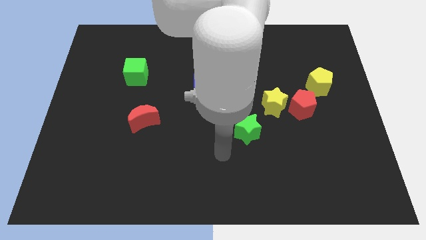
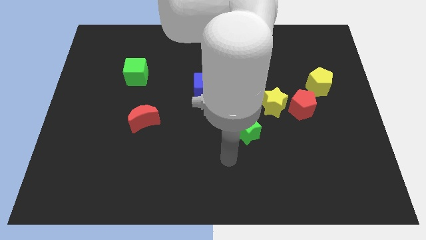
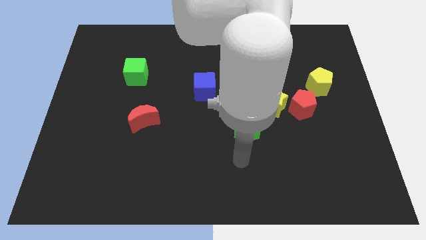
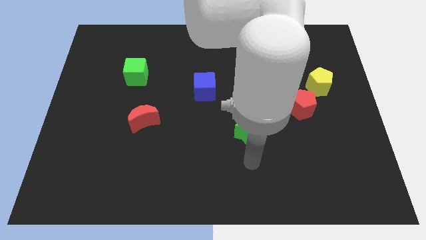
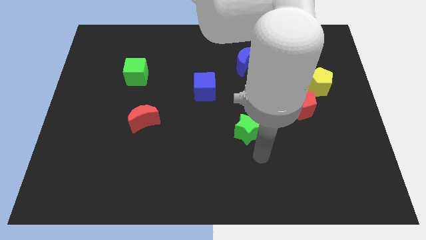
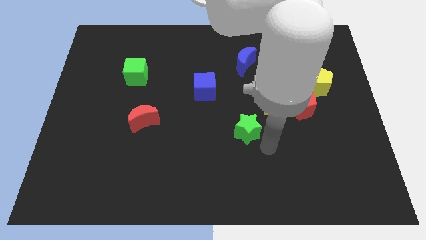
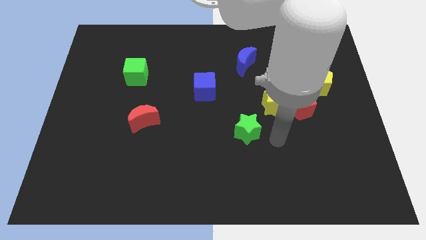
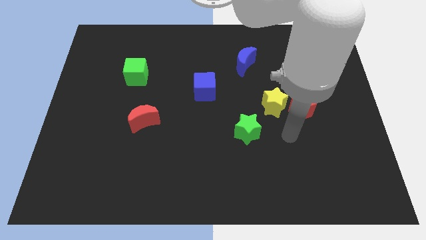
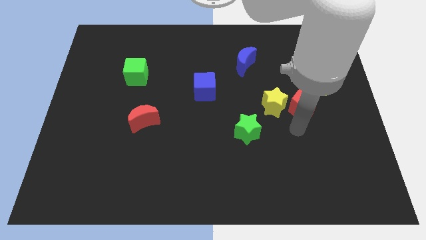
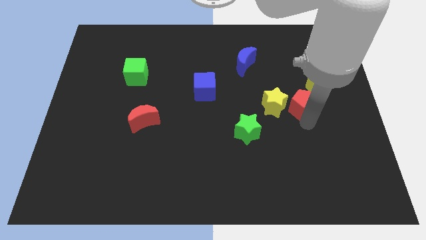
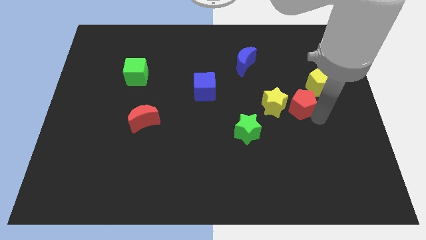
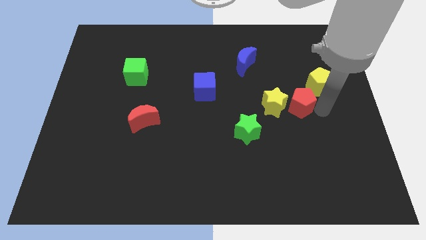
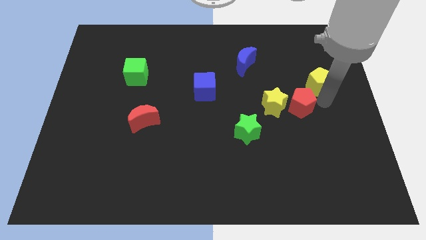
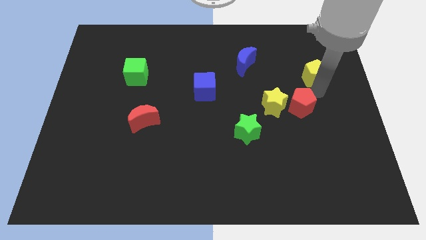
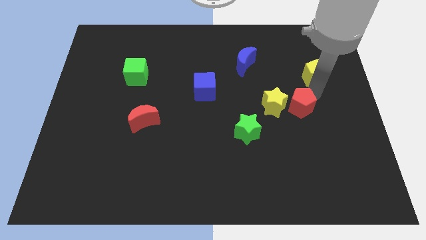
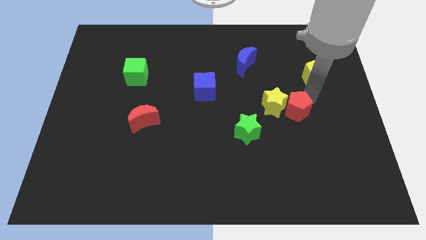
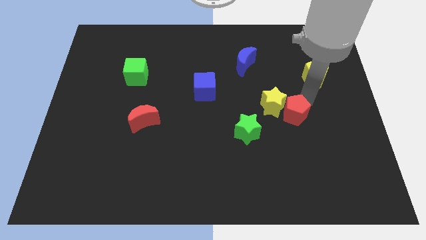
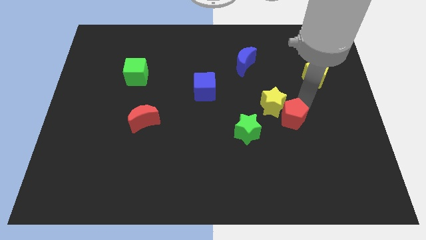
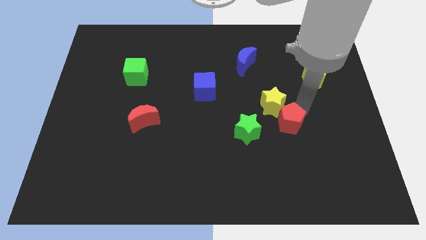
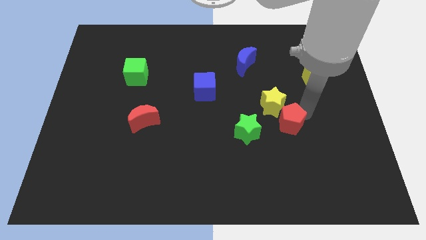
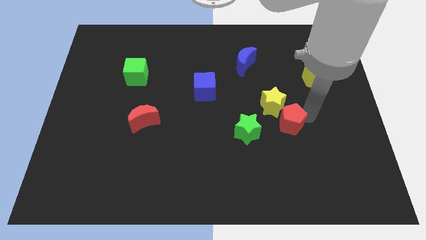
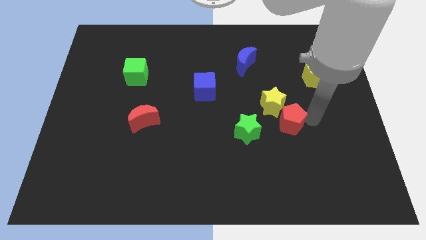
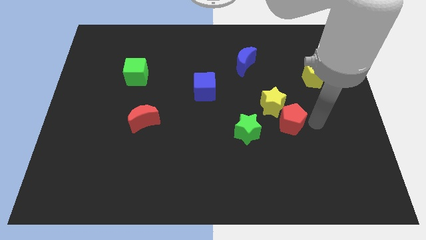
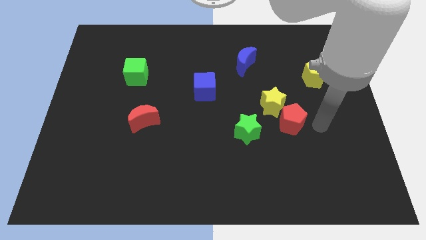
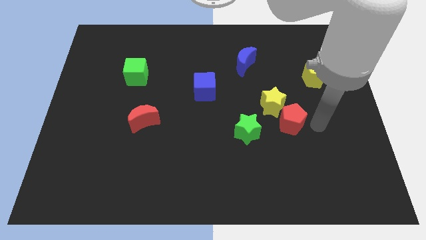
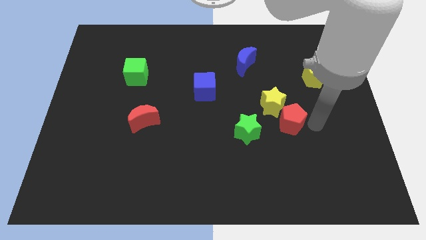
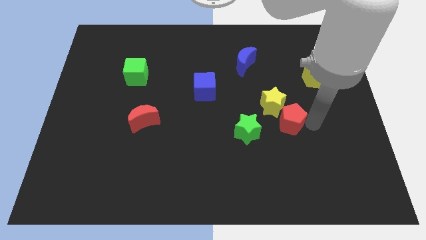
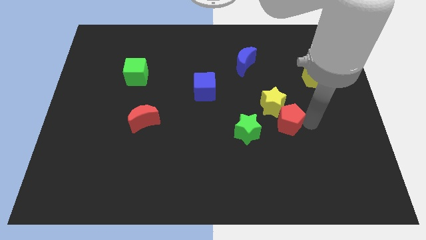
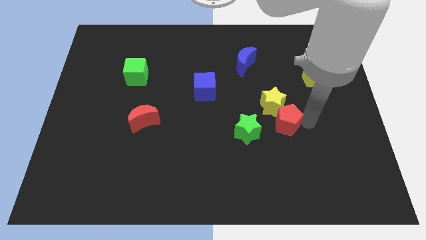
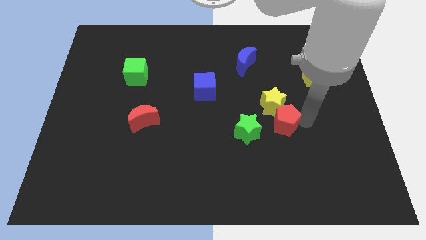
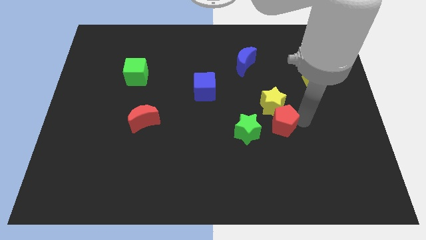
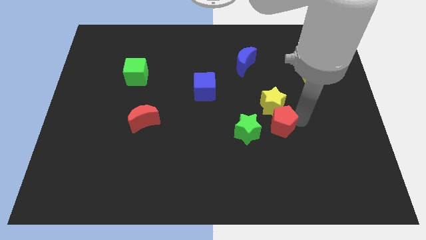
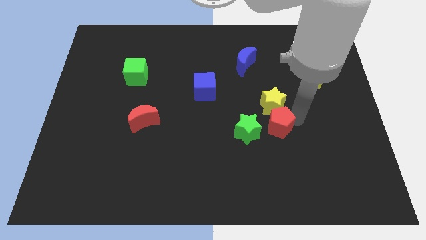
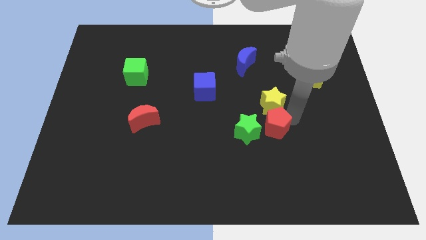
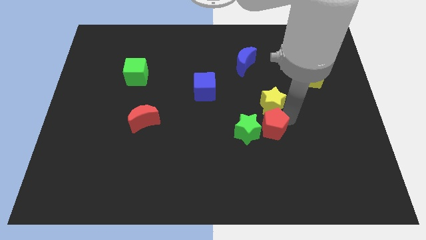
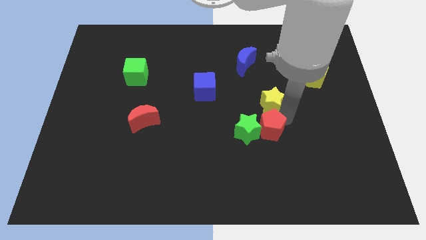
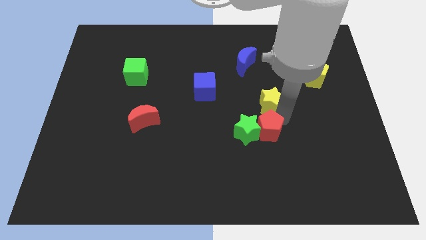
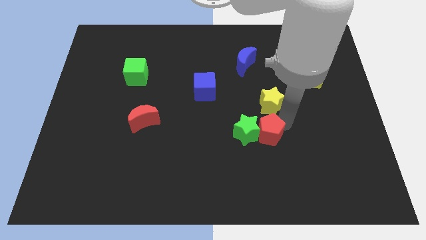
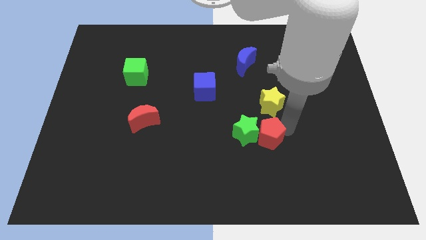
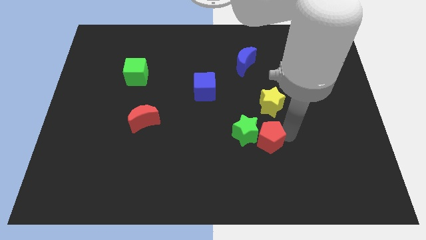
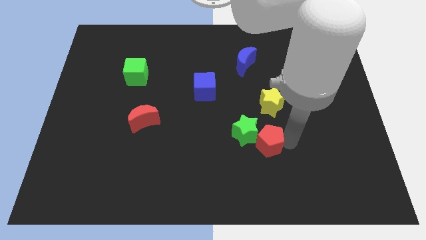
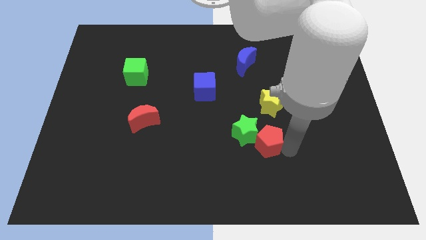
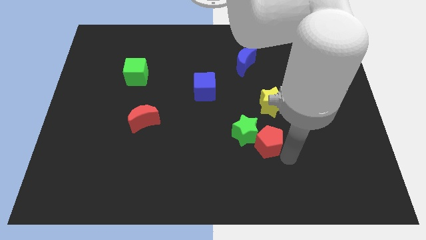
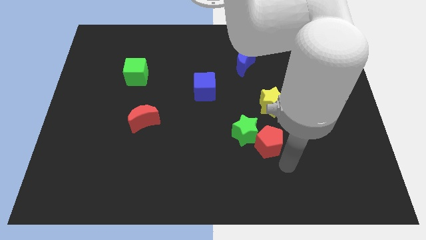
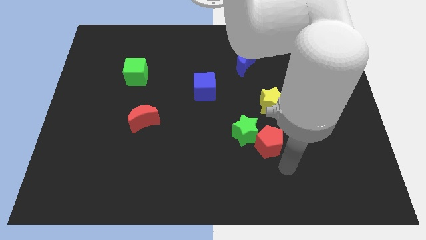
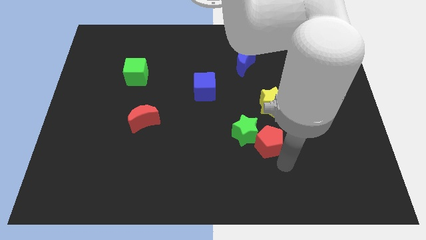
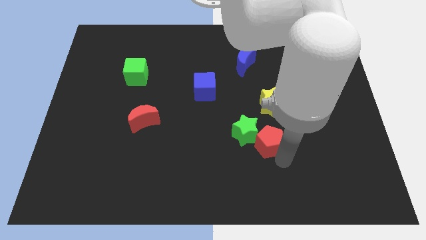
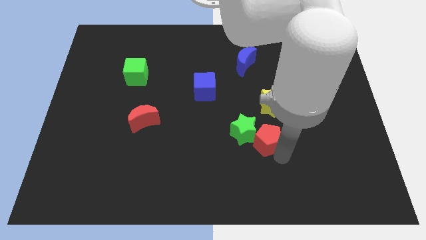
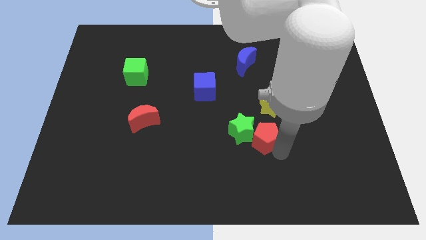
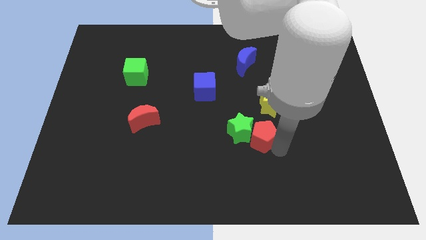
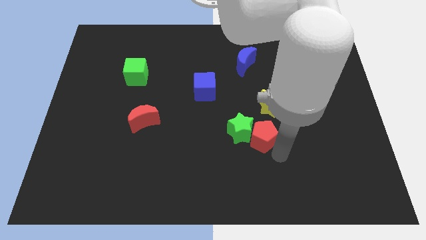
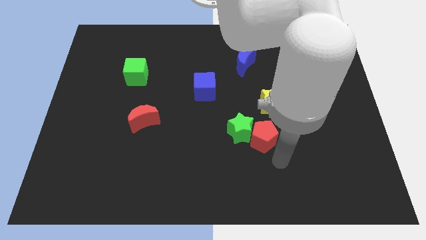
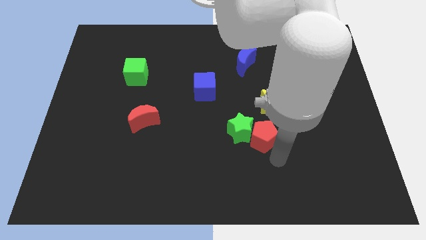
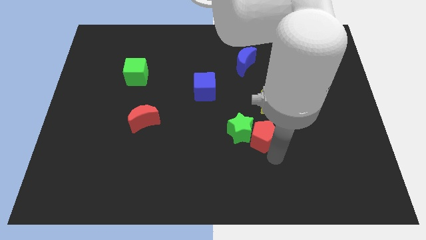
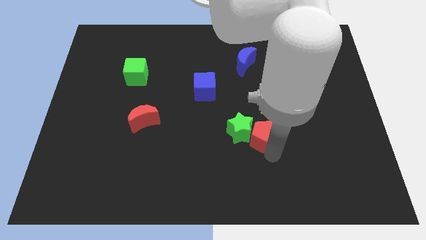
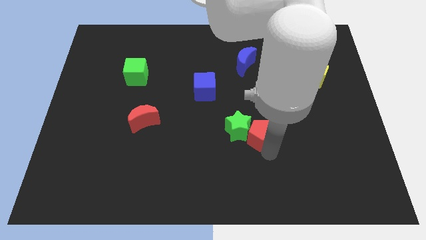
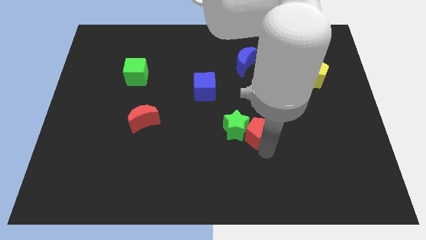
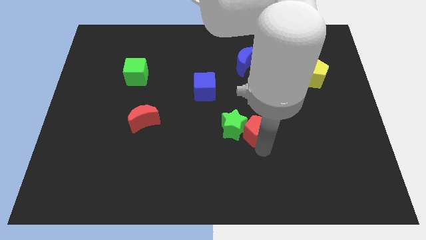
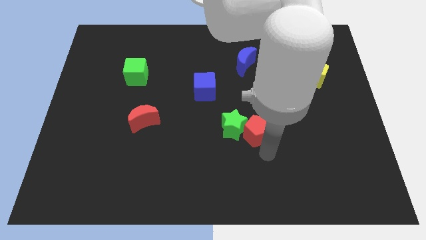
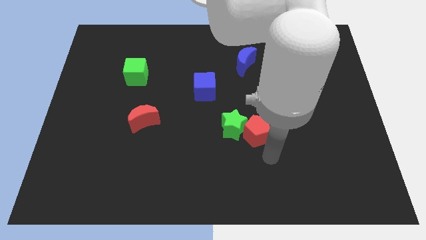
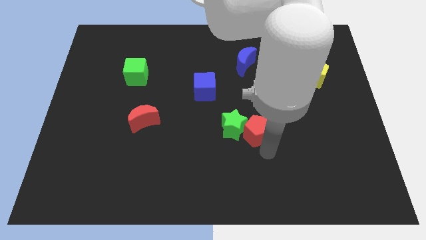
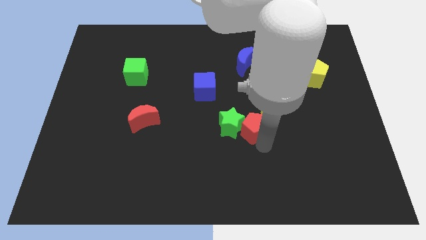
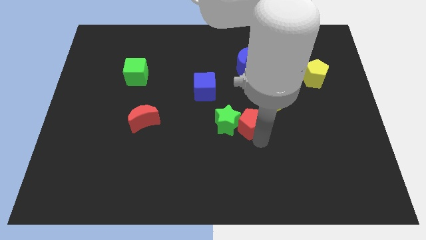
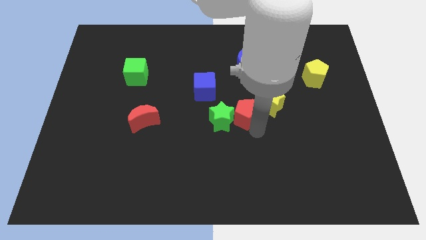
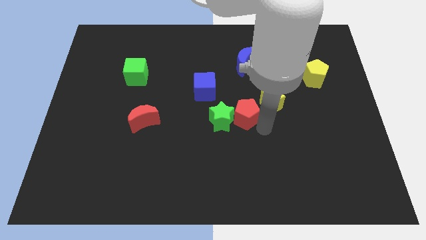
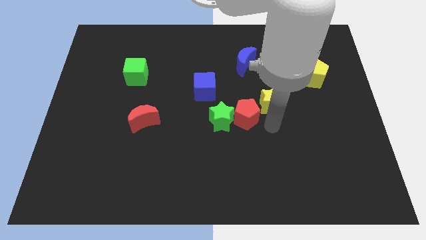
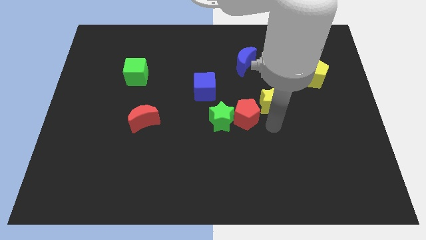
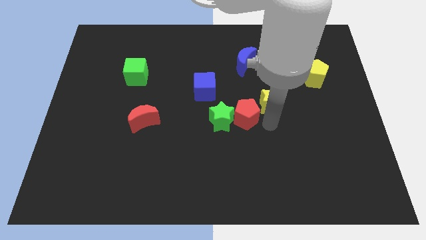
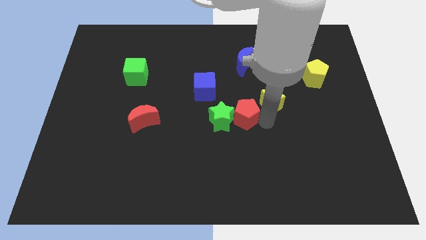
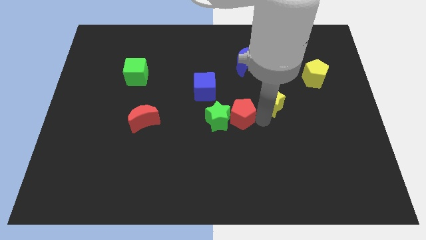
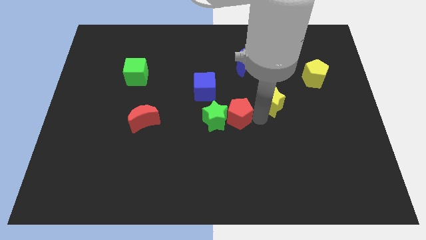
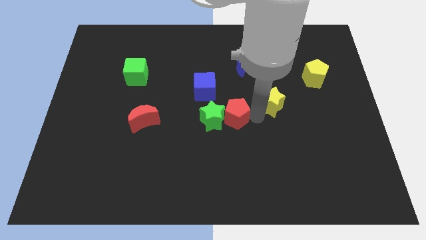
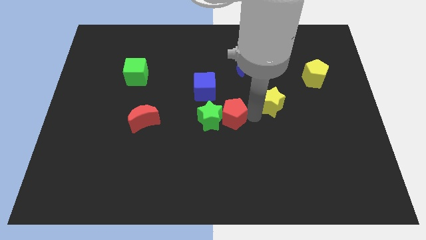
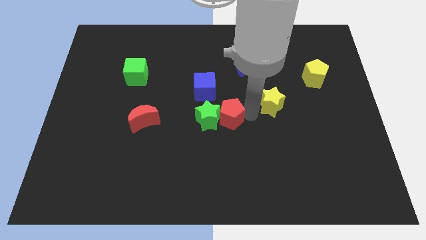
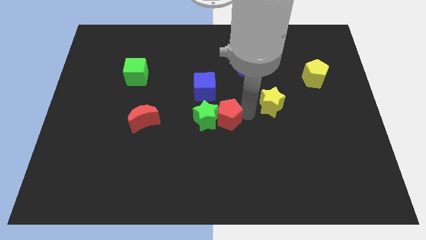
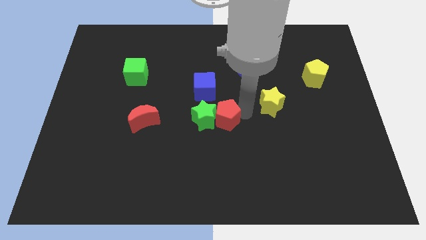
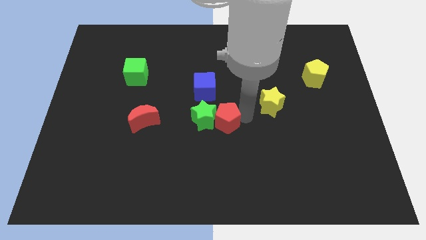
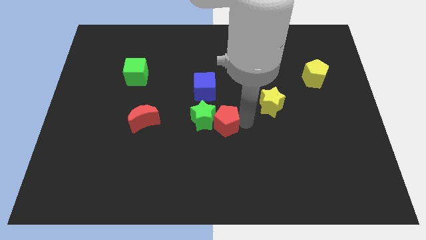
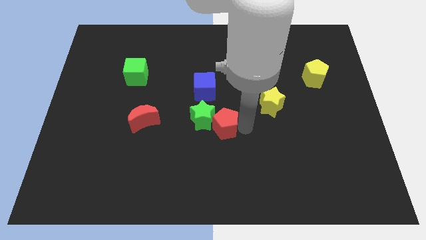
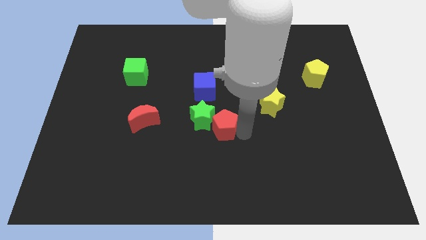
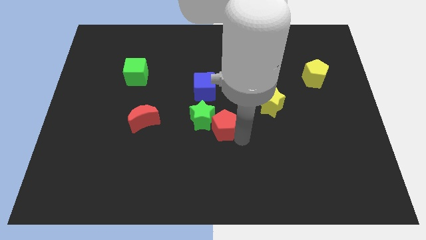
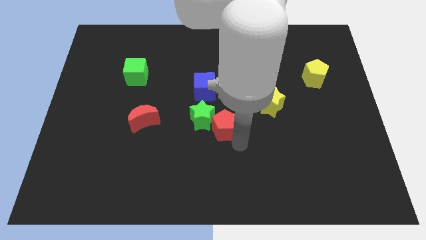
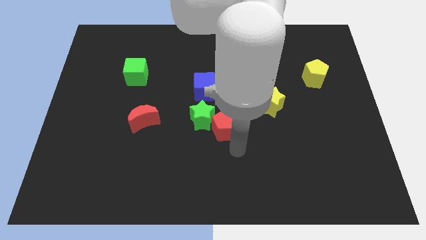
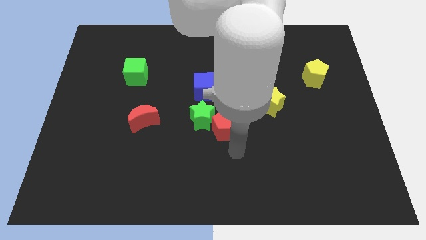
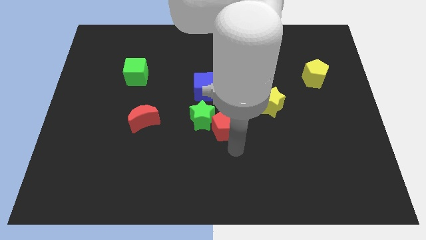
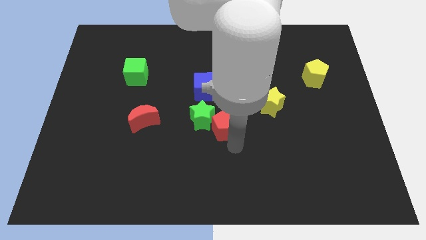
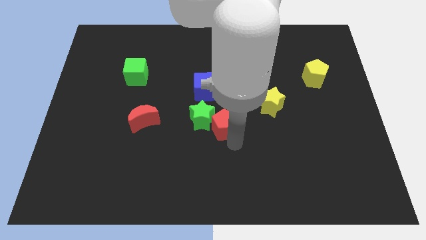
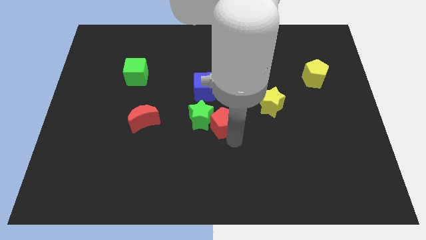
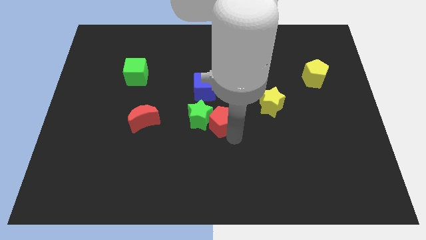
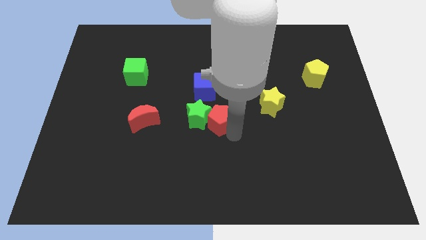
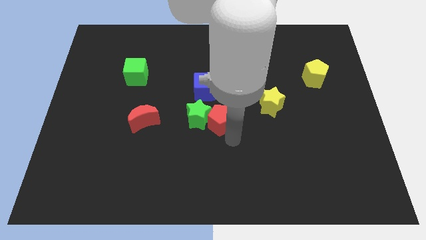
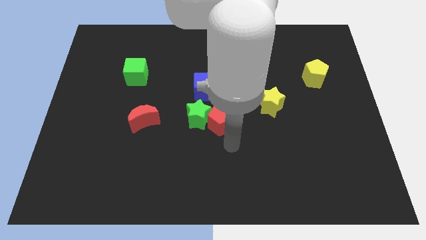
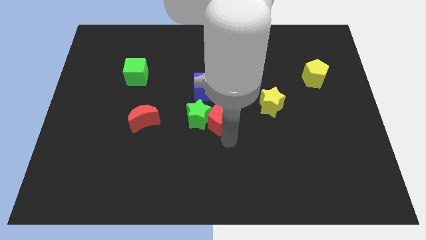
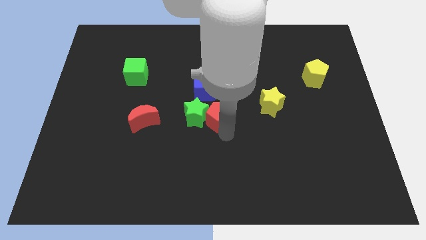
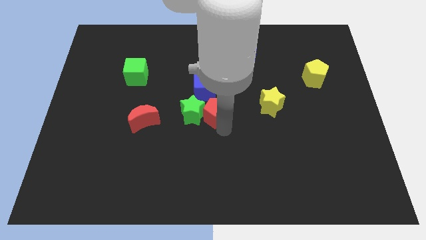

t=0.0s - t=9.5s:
slide the red pentagon left
